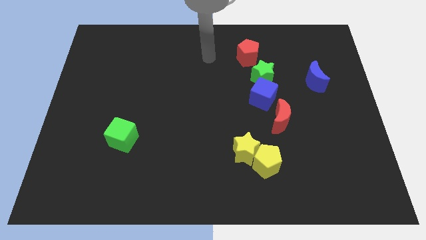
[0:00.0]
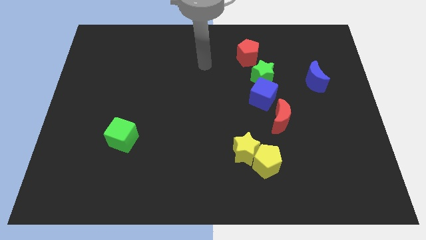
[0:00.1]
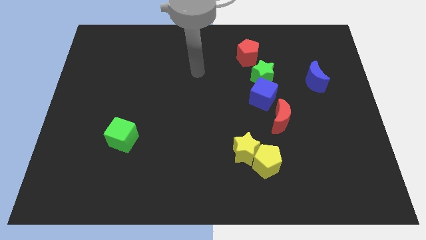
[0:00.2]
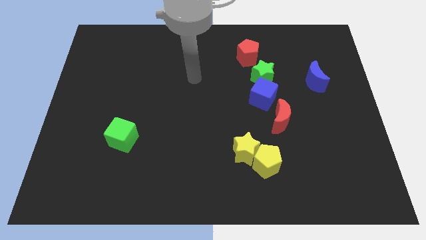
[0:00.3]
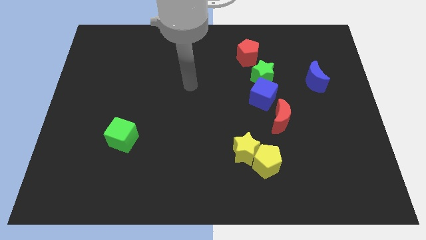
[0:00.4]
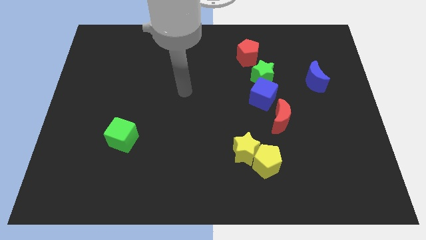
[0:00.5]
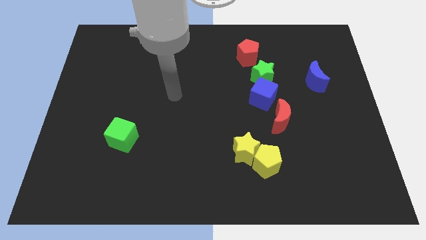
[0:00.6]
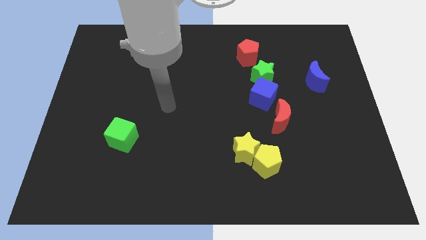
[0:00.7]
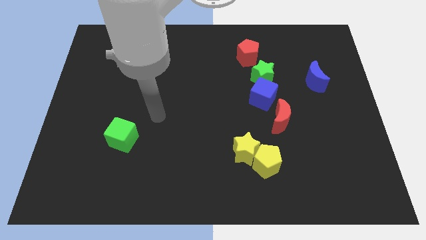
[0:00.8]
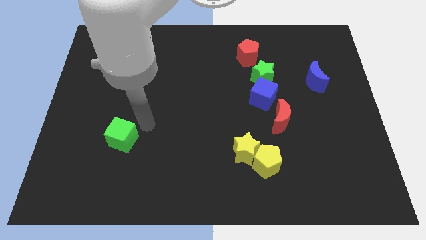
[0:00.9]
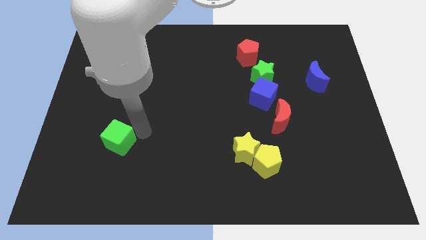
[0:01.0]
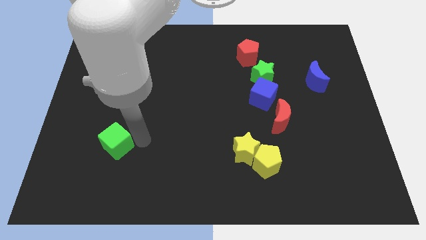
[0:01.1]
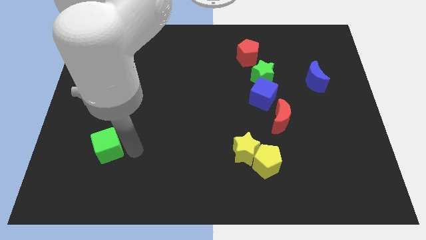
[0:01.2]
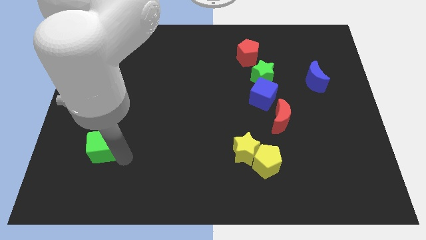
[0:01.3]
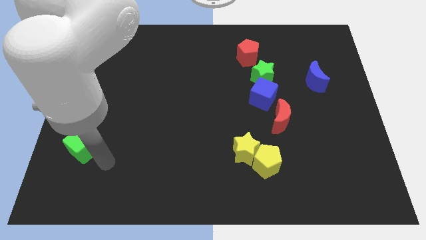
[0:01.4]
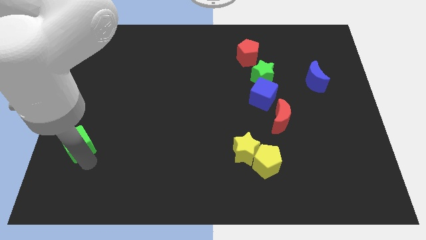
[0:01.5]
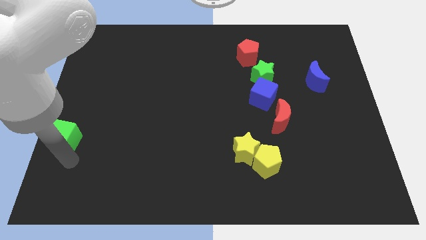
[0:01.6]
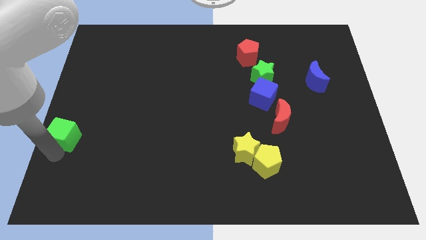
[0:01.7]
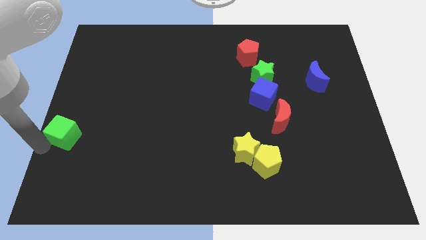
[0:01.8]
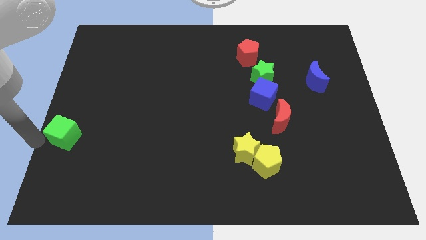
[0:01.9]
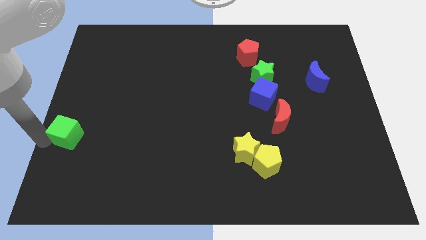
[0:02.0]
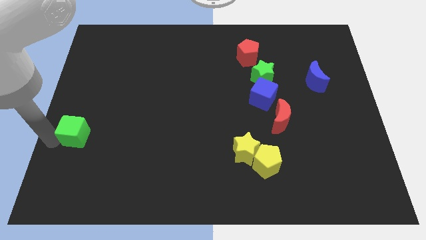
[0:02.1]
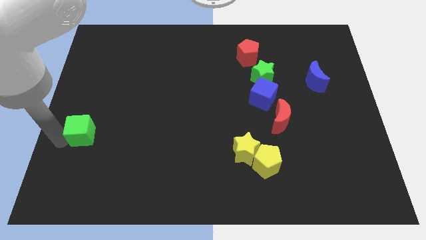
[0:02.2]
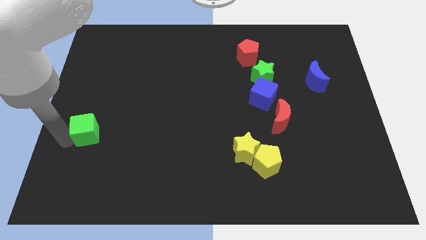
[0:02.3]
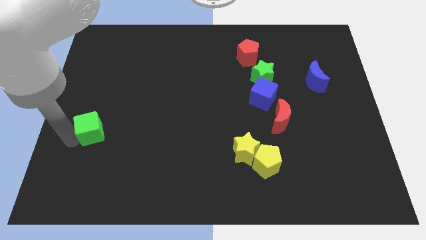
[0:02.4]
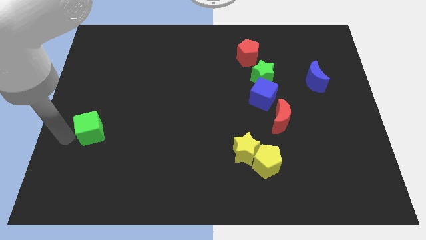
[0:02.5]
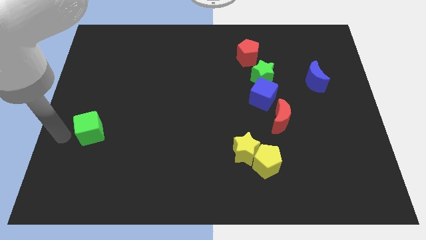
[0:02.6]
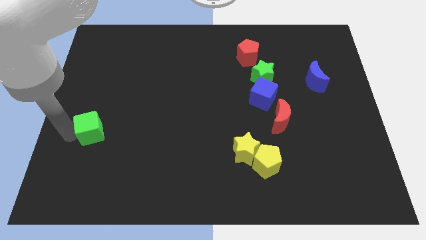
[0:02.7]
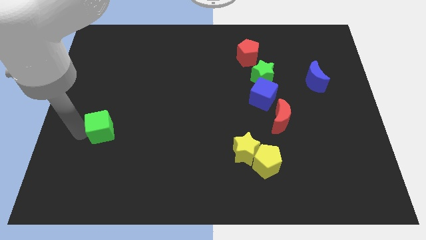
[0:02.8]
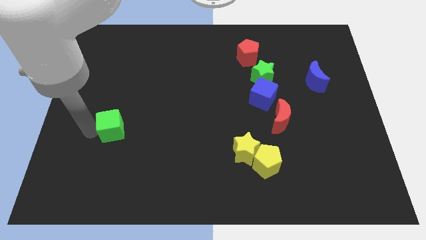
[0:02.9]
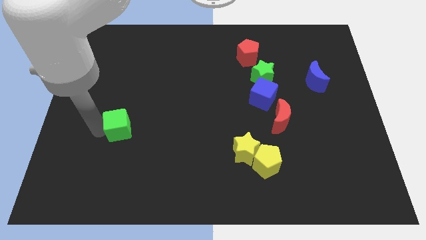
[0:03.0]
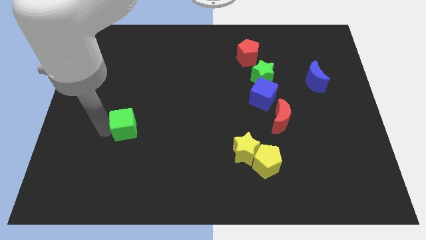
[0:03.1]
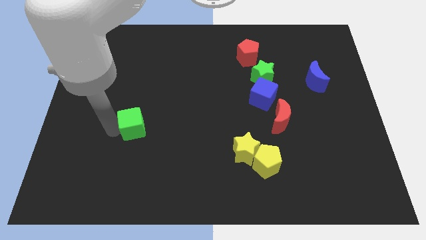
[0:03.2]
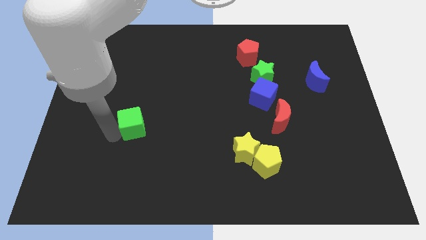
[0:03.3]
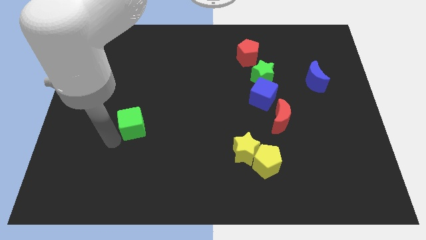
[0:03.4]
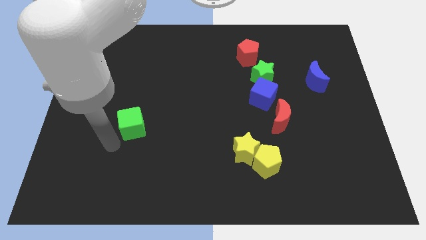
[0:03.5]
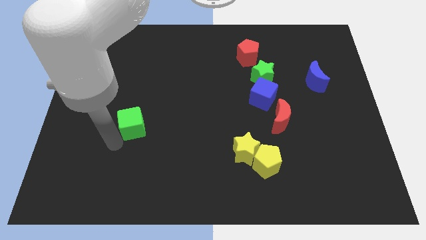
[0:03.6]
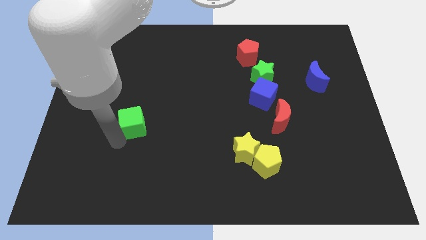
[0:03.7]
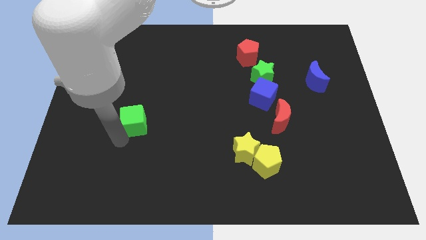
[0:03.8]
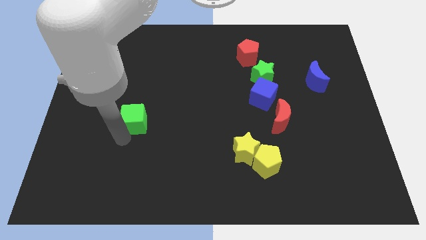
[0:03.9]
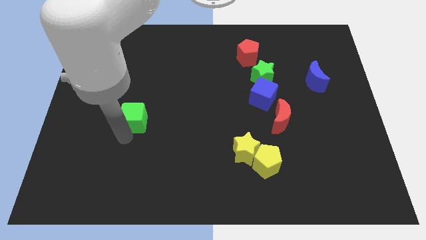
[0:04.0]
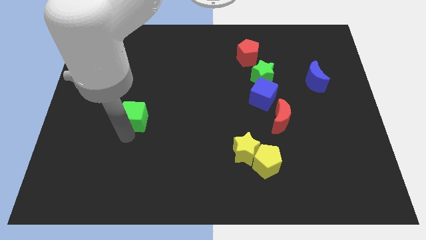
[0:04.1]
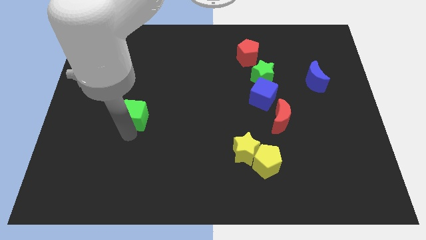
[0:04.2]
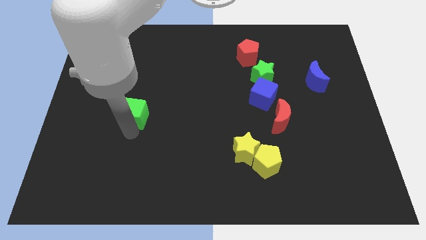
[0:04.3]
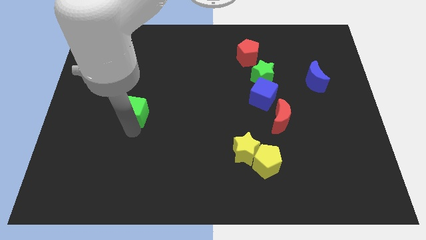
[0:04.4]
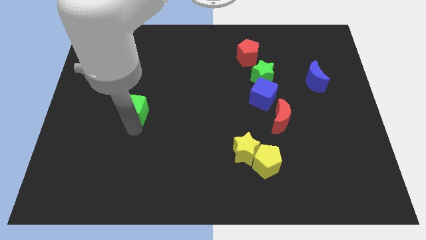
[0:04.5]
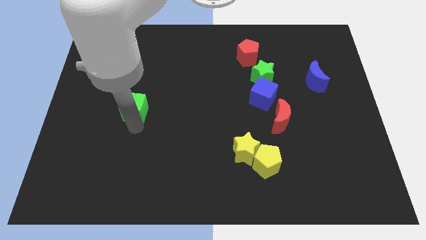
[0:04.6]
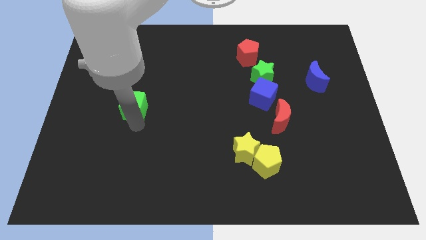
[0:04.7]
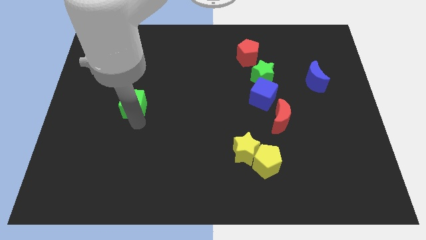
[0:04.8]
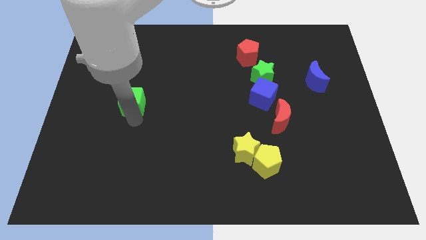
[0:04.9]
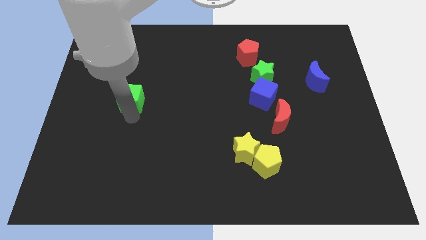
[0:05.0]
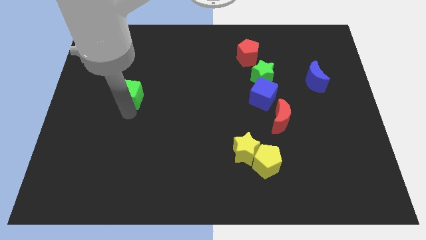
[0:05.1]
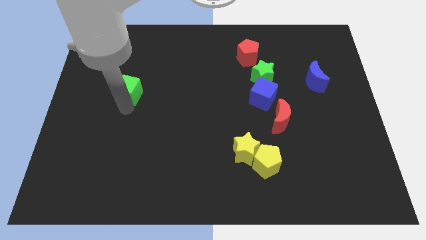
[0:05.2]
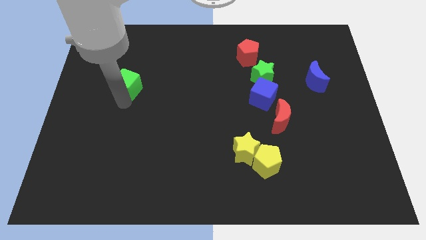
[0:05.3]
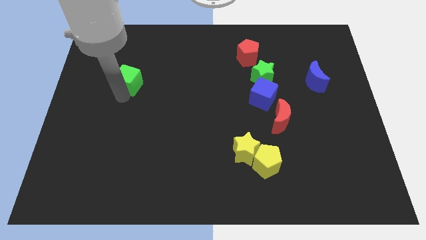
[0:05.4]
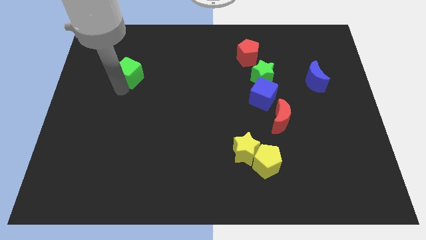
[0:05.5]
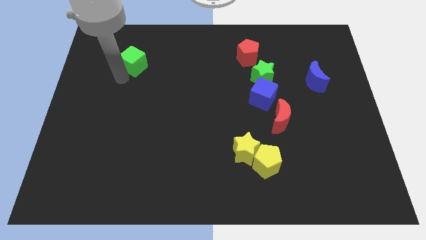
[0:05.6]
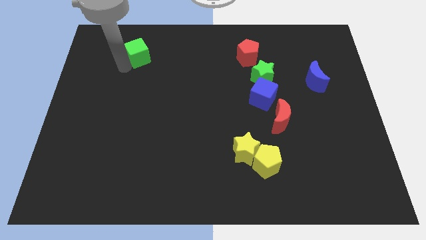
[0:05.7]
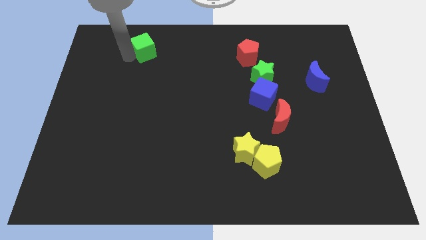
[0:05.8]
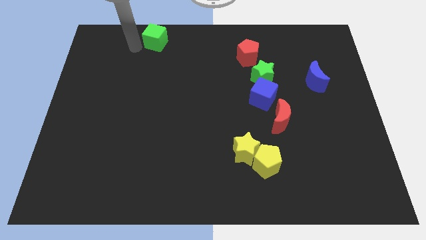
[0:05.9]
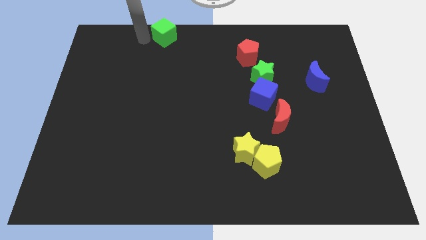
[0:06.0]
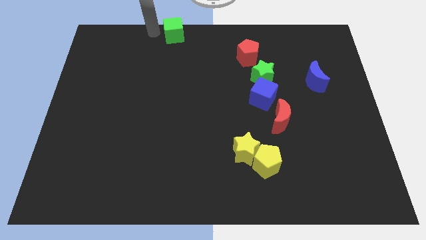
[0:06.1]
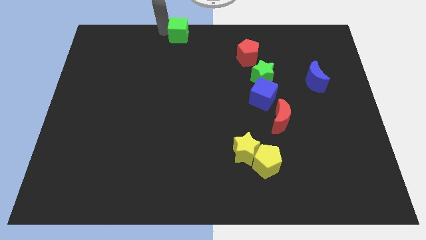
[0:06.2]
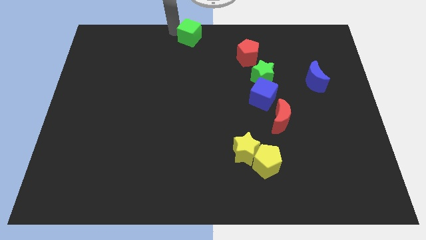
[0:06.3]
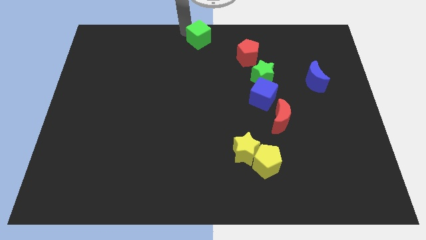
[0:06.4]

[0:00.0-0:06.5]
move the green cube up and to the right

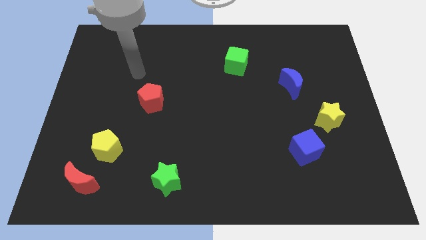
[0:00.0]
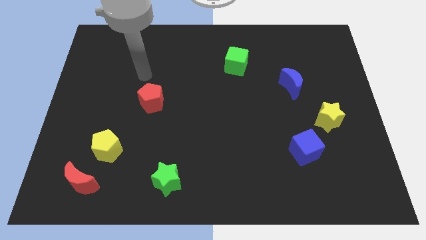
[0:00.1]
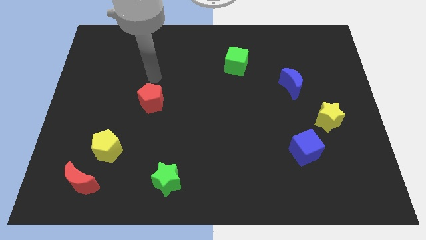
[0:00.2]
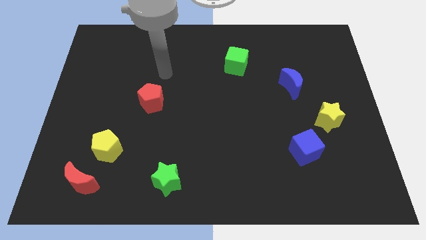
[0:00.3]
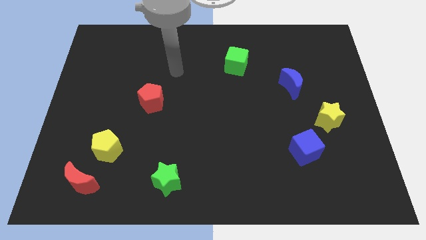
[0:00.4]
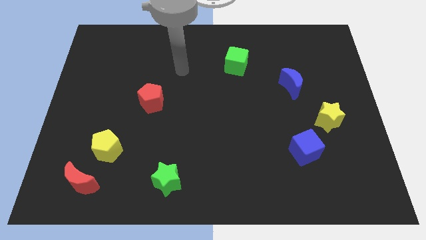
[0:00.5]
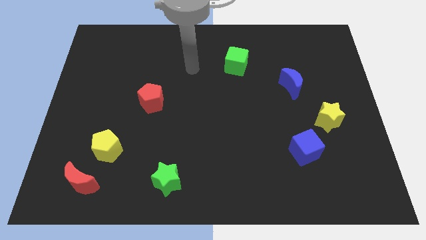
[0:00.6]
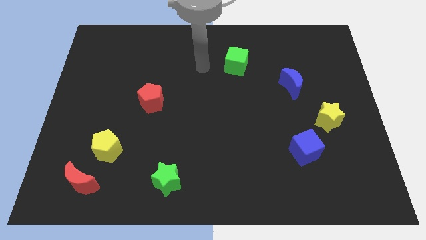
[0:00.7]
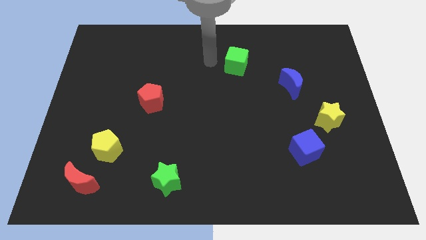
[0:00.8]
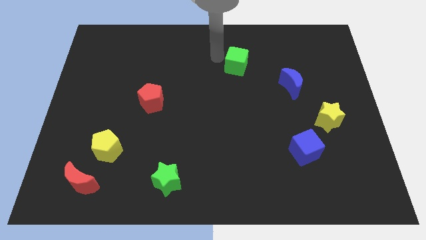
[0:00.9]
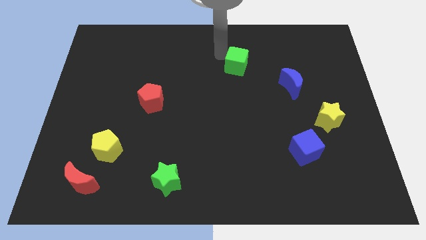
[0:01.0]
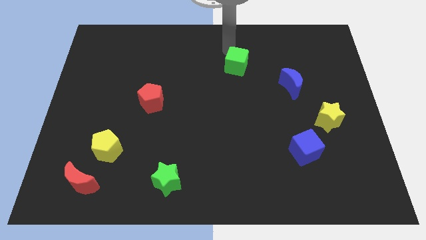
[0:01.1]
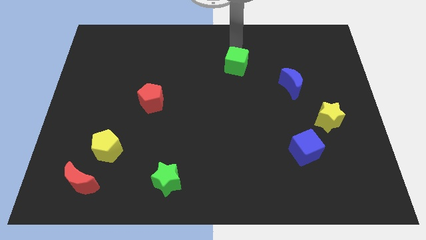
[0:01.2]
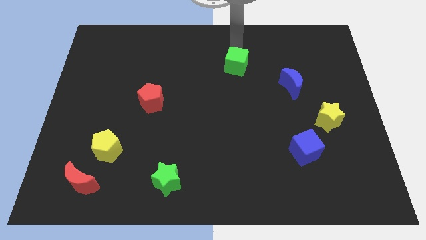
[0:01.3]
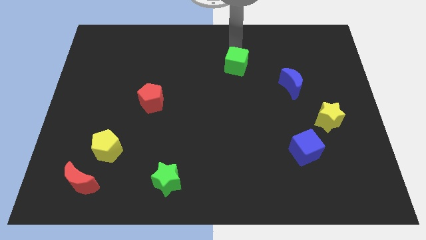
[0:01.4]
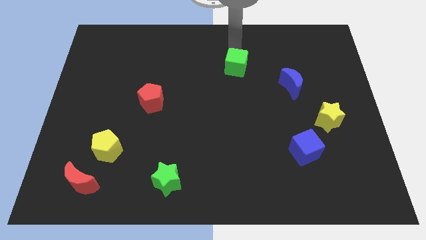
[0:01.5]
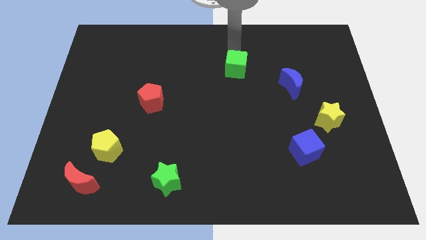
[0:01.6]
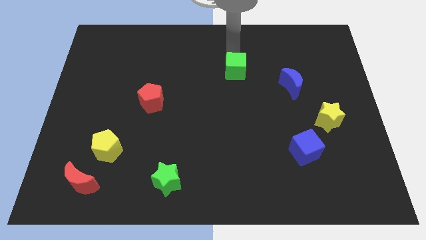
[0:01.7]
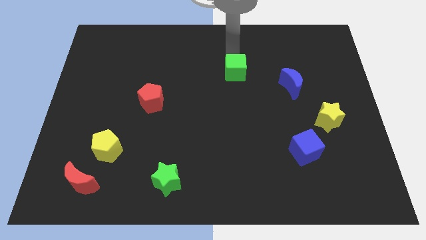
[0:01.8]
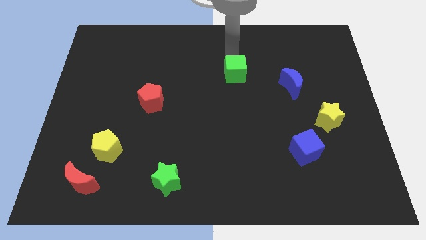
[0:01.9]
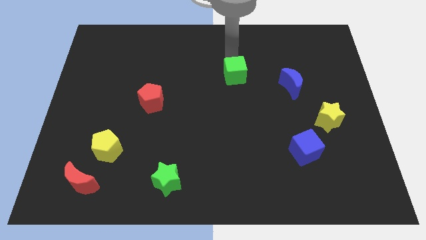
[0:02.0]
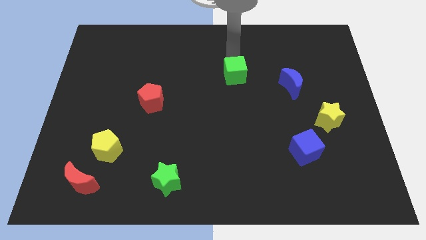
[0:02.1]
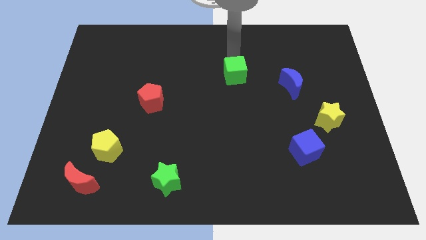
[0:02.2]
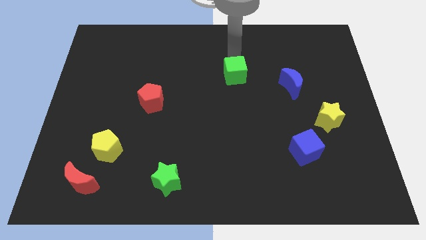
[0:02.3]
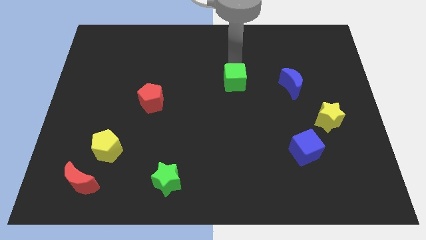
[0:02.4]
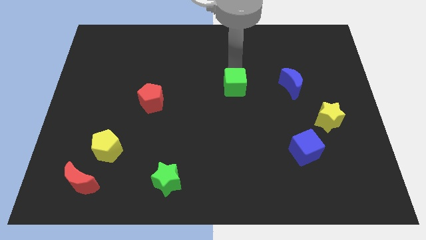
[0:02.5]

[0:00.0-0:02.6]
slightly slide the green cube downwards
